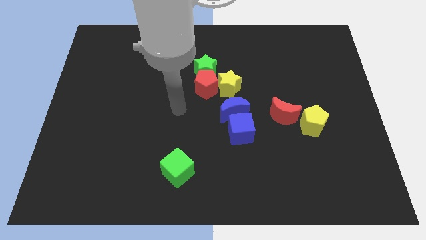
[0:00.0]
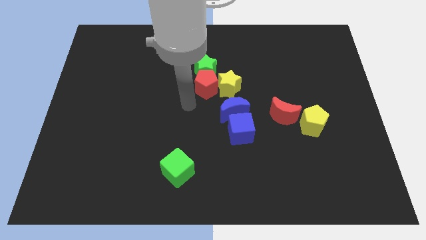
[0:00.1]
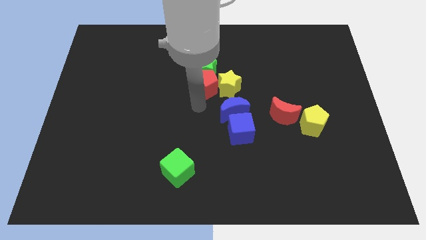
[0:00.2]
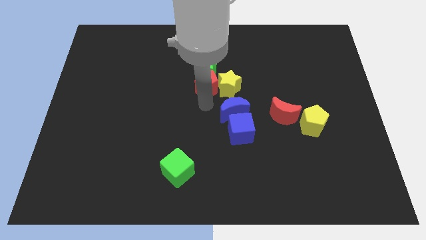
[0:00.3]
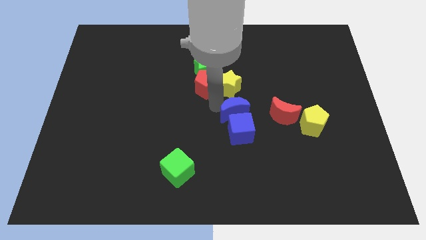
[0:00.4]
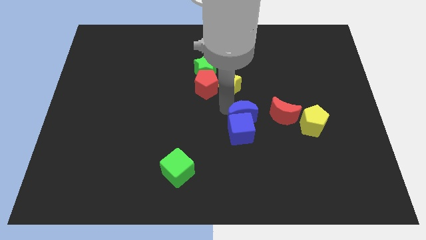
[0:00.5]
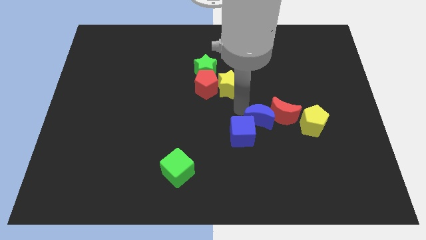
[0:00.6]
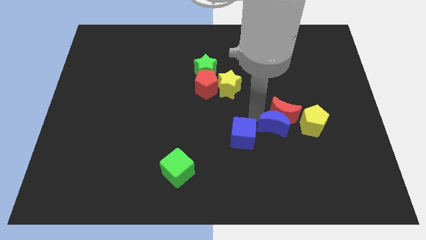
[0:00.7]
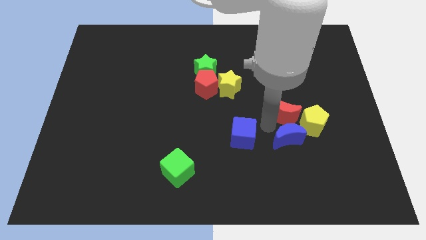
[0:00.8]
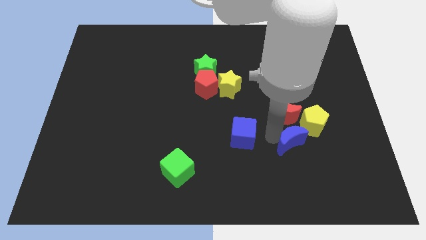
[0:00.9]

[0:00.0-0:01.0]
separate the blue cube from the blue moon

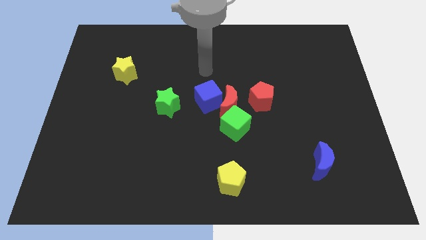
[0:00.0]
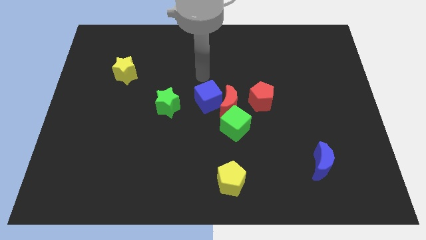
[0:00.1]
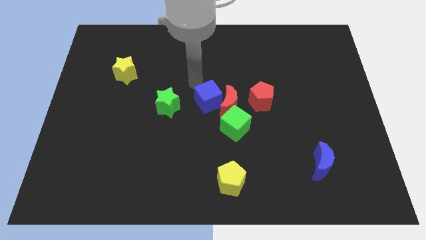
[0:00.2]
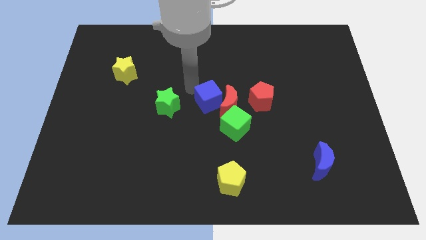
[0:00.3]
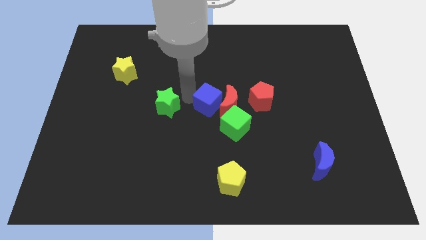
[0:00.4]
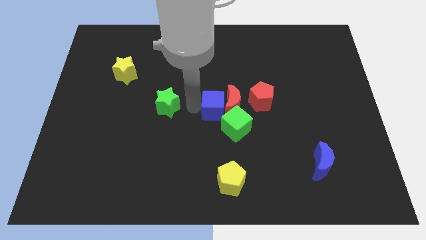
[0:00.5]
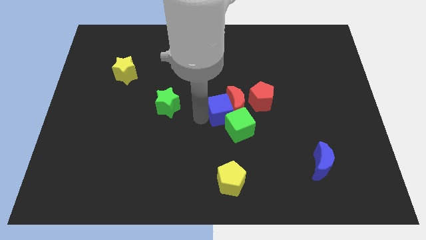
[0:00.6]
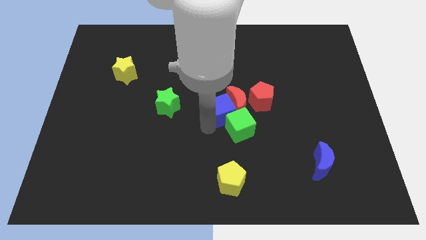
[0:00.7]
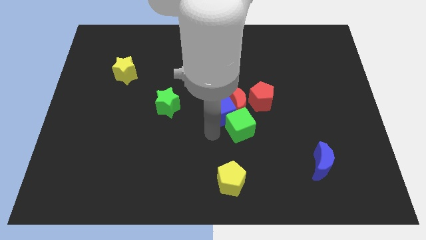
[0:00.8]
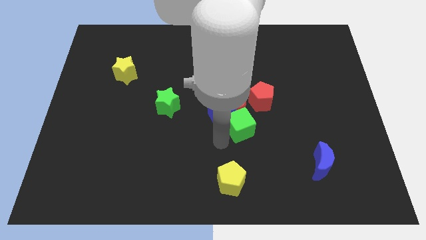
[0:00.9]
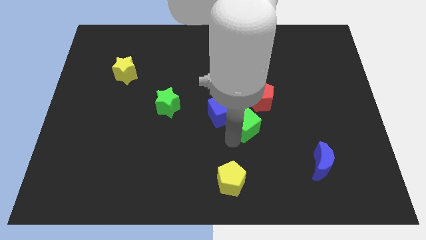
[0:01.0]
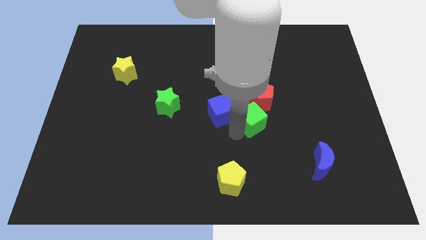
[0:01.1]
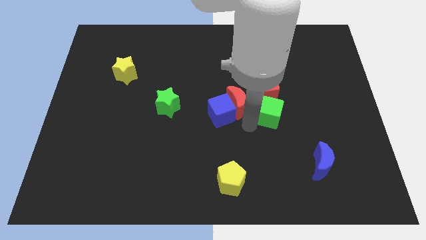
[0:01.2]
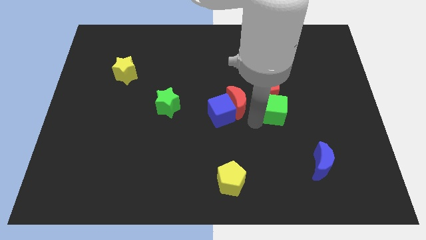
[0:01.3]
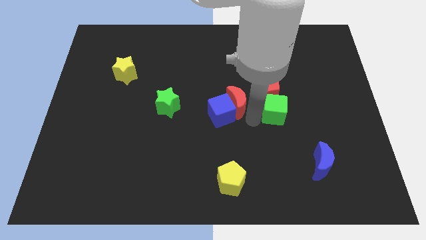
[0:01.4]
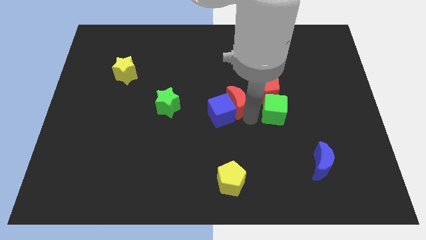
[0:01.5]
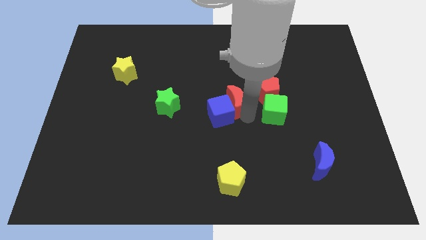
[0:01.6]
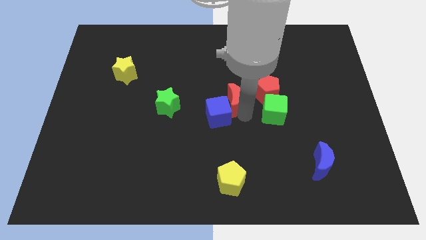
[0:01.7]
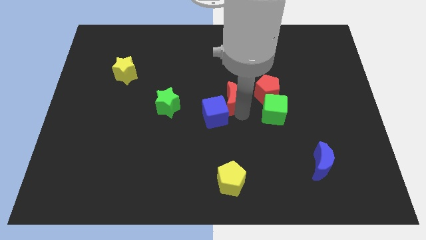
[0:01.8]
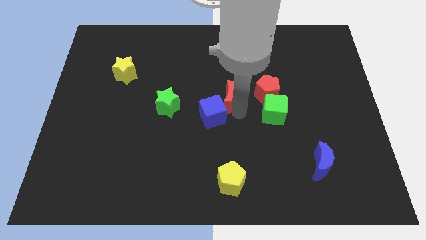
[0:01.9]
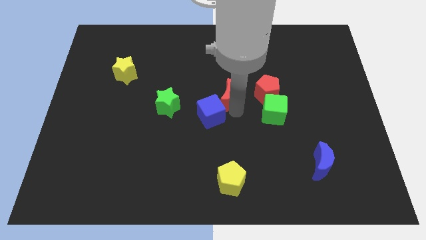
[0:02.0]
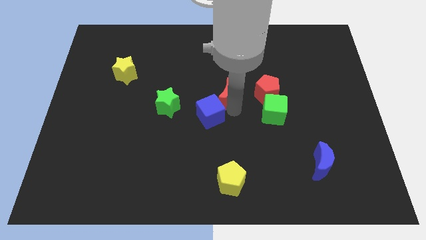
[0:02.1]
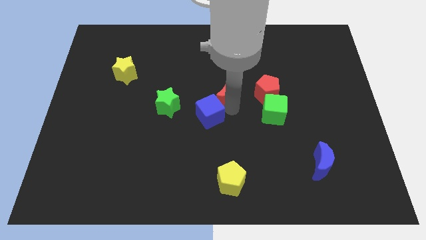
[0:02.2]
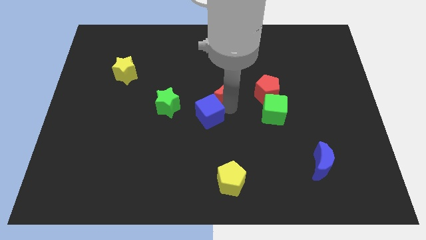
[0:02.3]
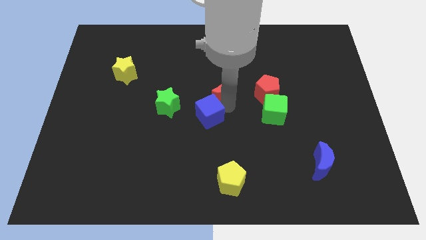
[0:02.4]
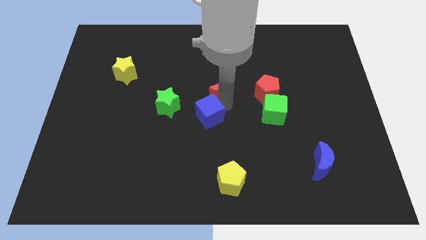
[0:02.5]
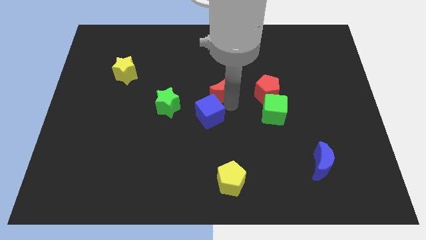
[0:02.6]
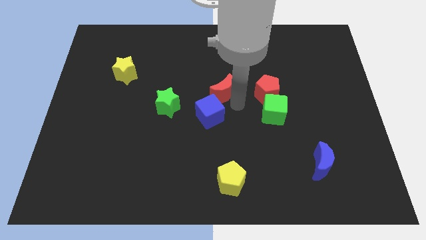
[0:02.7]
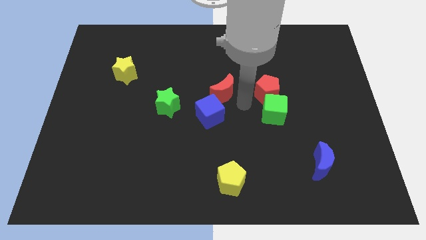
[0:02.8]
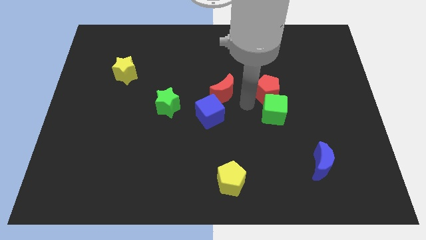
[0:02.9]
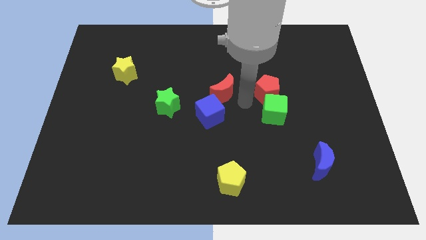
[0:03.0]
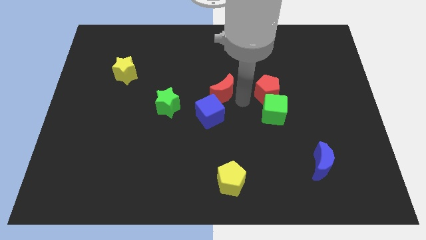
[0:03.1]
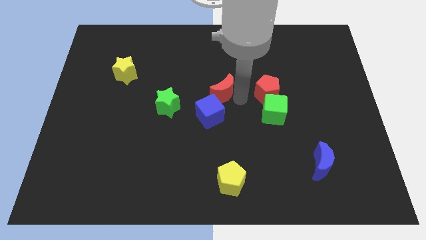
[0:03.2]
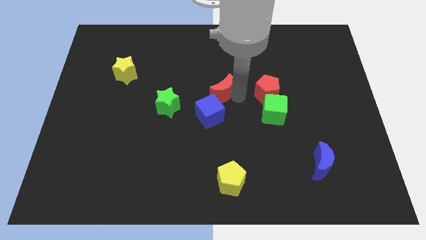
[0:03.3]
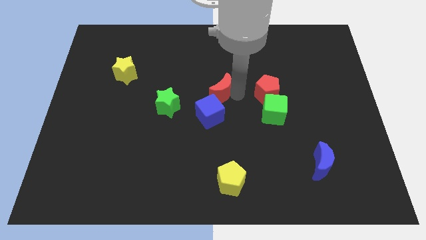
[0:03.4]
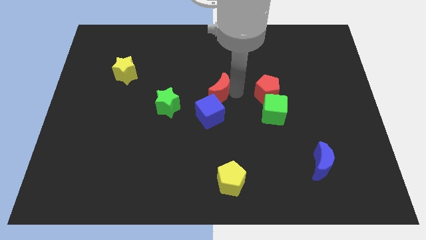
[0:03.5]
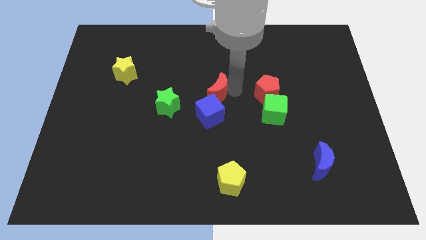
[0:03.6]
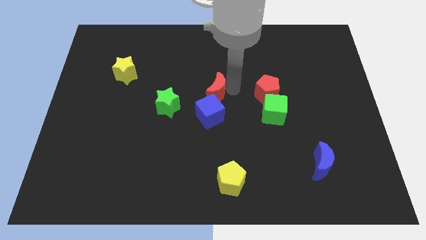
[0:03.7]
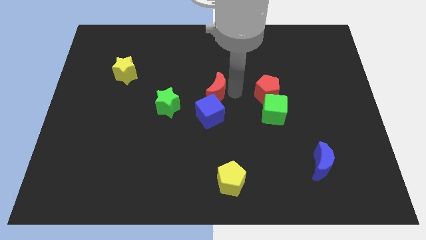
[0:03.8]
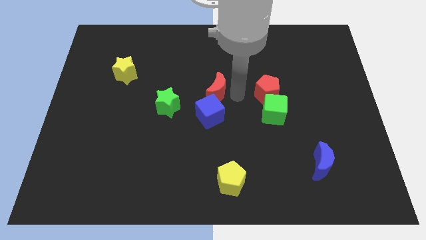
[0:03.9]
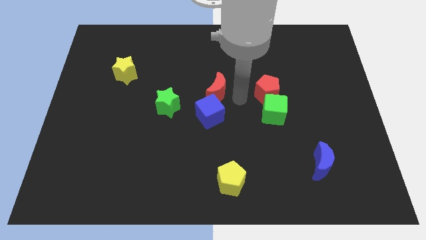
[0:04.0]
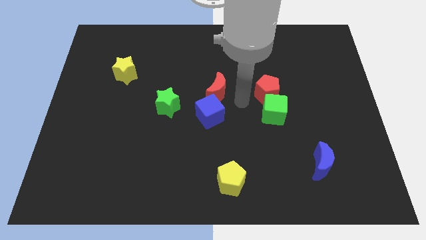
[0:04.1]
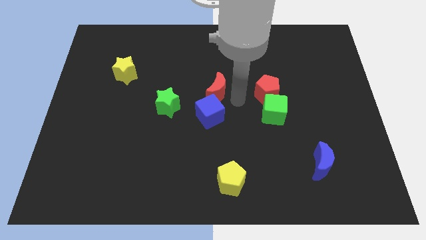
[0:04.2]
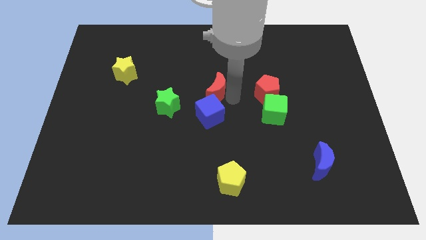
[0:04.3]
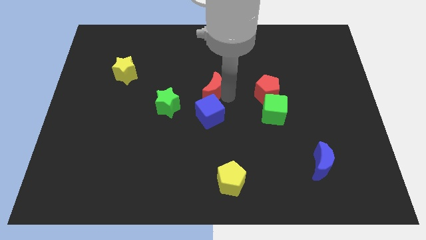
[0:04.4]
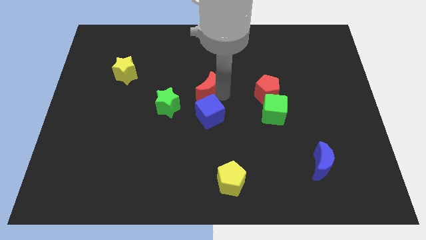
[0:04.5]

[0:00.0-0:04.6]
pull the red moon apart from the blue cube, green cube, and red pentagon

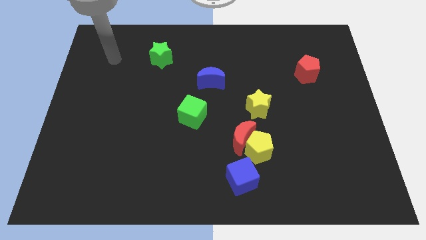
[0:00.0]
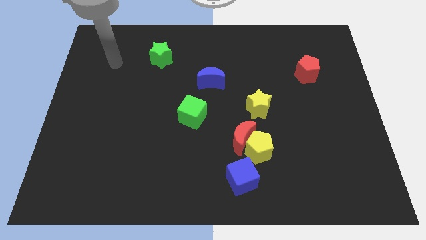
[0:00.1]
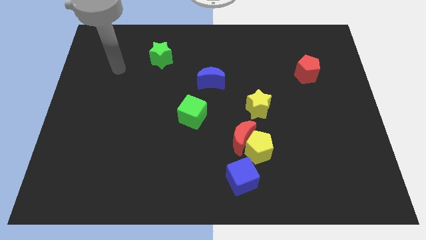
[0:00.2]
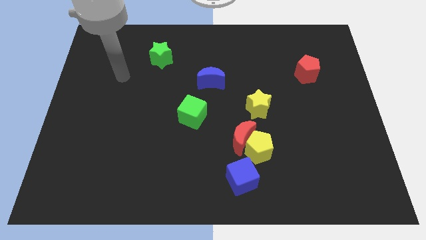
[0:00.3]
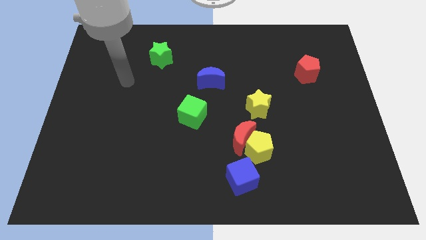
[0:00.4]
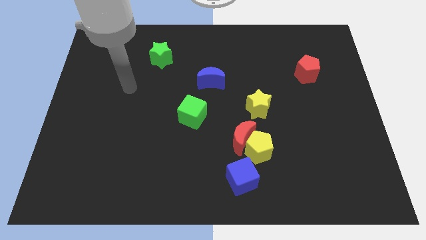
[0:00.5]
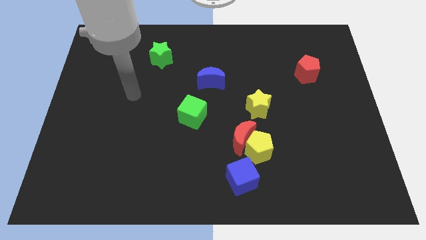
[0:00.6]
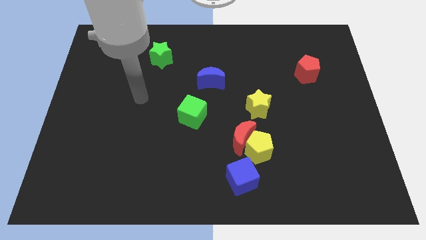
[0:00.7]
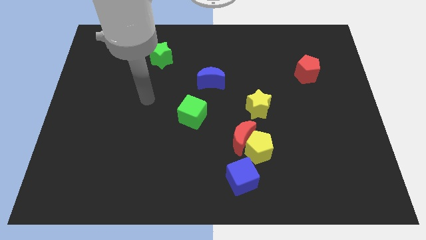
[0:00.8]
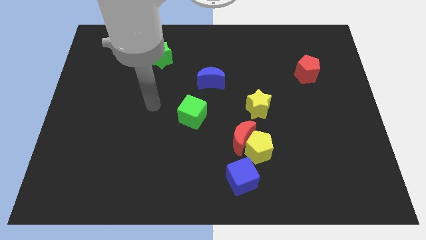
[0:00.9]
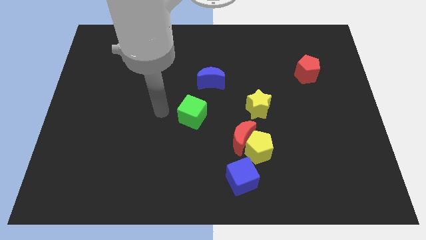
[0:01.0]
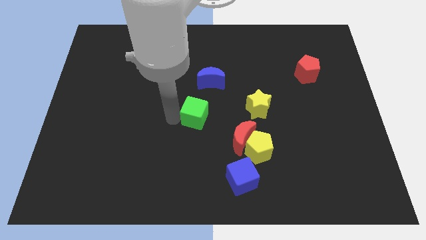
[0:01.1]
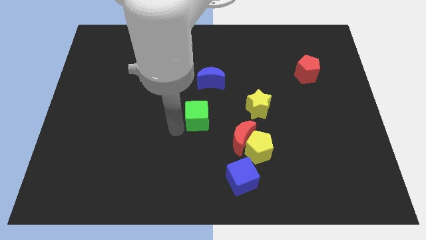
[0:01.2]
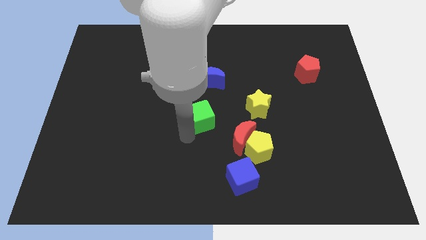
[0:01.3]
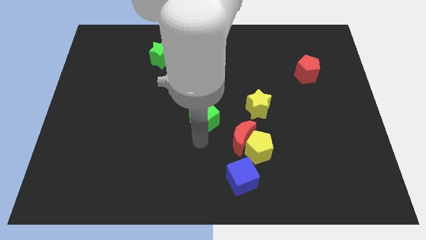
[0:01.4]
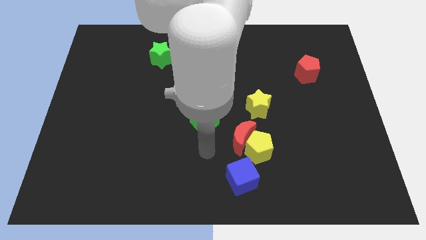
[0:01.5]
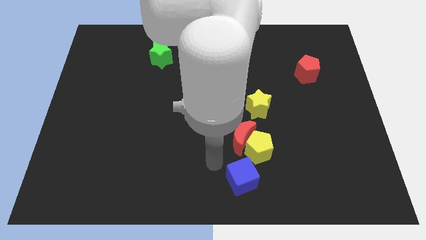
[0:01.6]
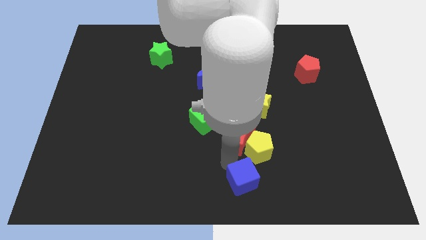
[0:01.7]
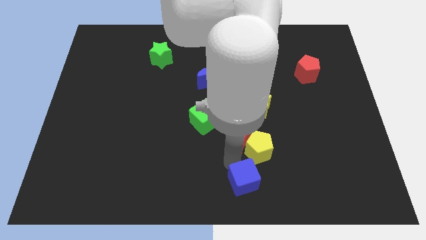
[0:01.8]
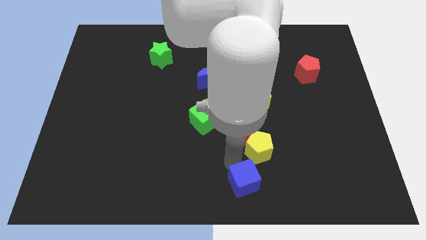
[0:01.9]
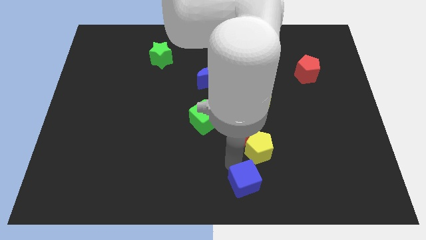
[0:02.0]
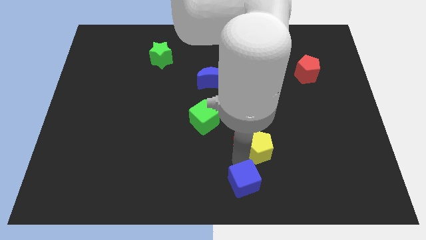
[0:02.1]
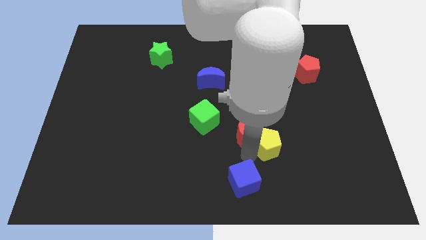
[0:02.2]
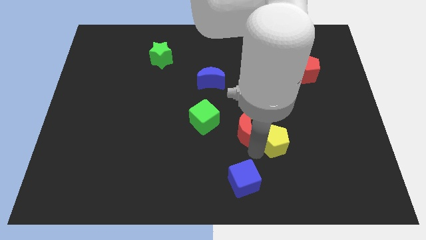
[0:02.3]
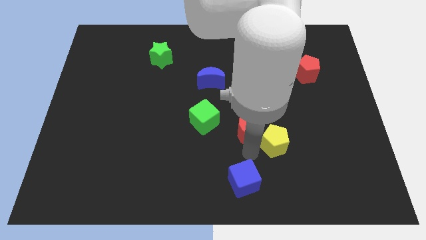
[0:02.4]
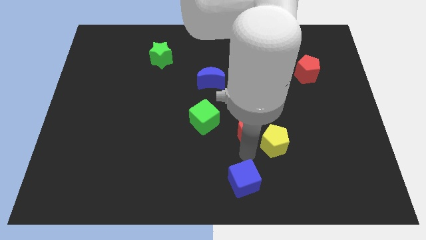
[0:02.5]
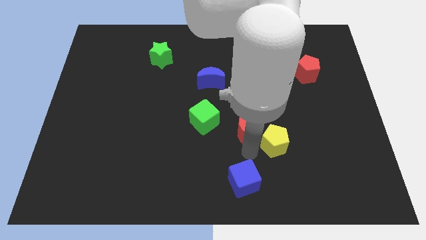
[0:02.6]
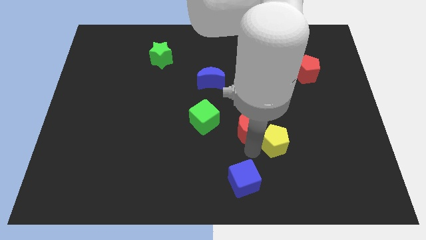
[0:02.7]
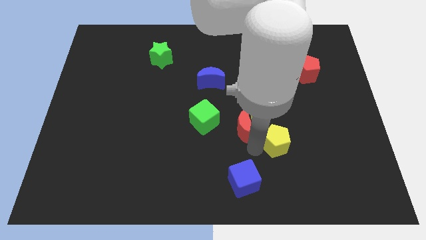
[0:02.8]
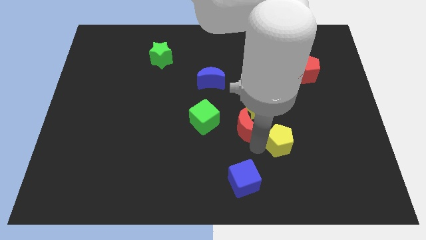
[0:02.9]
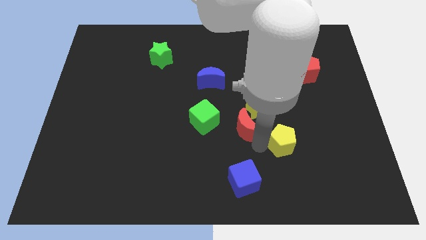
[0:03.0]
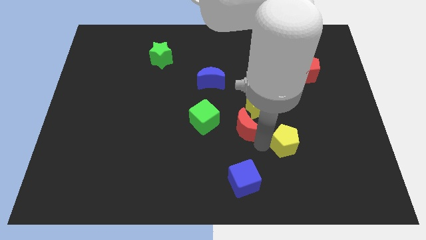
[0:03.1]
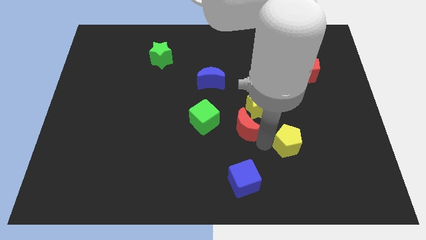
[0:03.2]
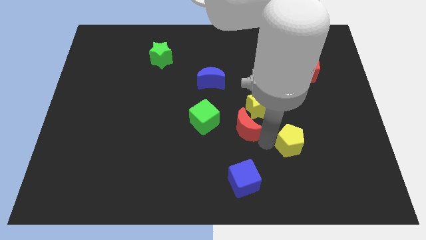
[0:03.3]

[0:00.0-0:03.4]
pull the yellow pentagon apart from the red moon and blue cube

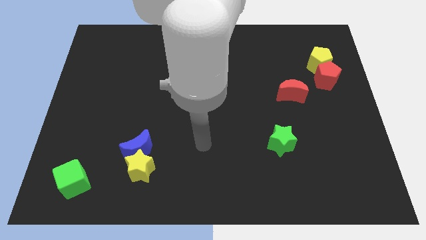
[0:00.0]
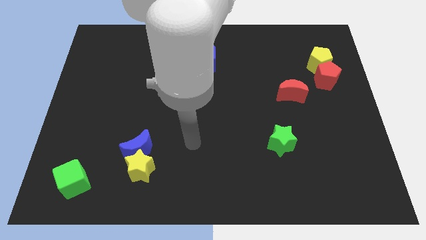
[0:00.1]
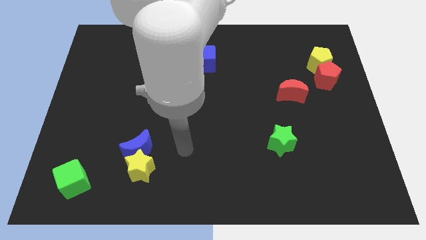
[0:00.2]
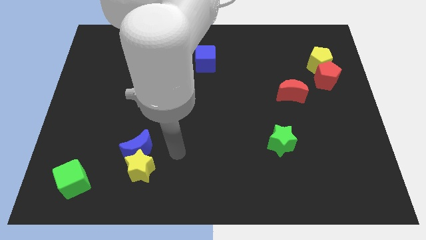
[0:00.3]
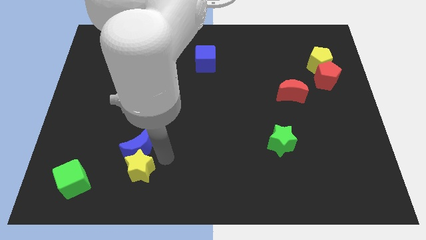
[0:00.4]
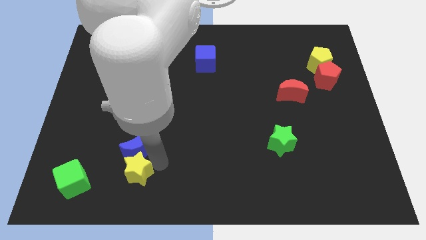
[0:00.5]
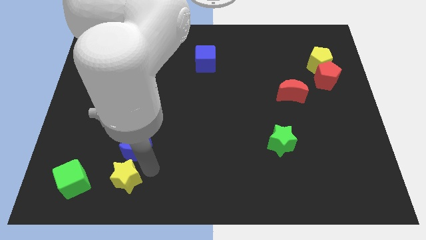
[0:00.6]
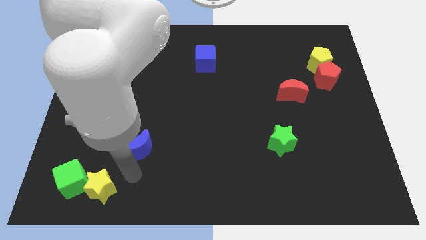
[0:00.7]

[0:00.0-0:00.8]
move the blue moon away from the yellow star
